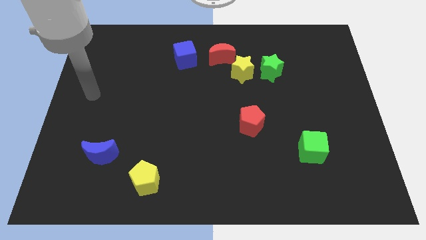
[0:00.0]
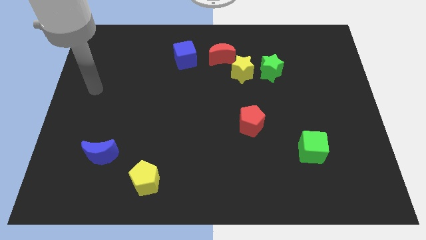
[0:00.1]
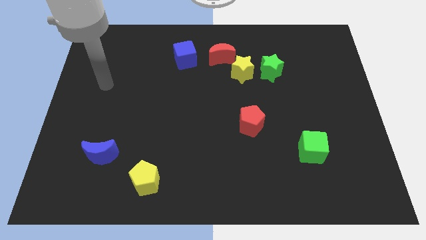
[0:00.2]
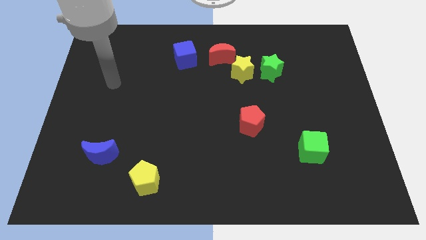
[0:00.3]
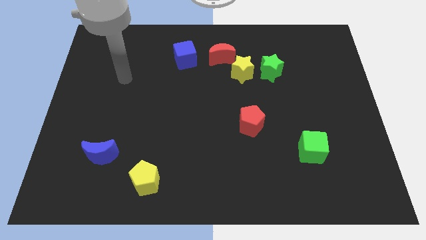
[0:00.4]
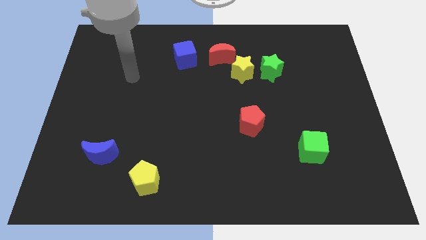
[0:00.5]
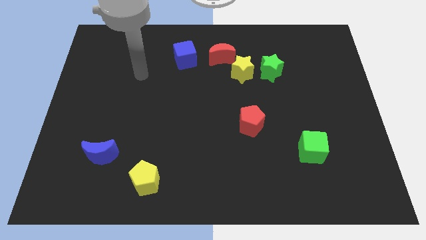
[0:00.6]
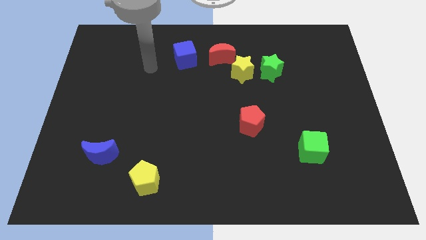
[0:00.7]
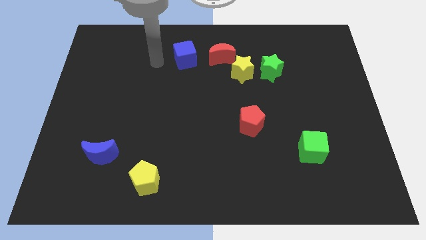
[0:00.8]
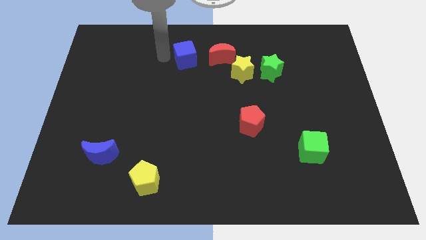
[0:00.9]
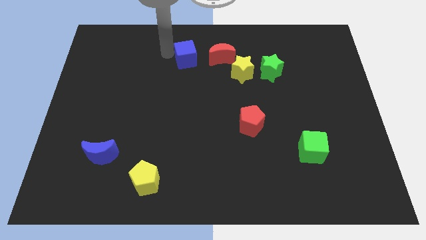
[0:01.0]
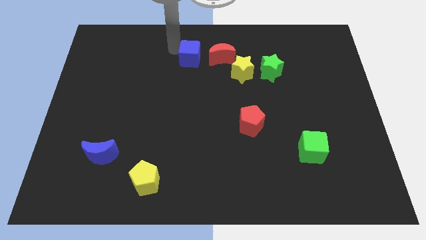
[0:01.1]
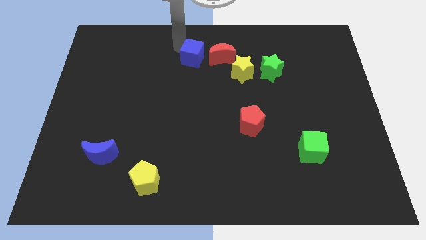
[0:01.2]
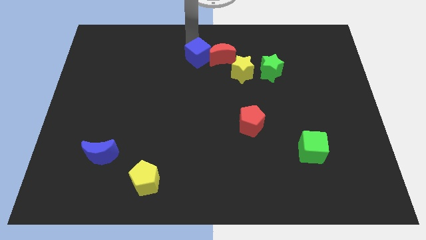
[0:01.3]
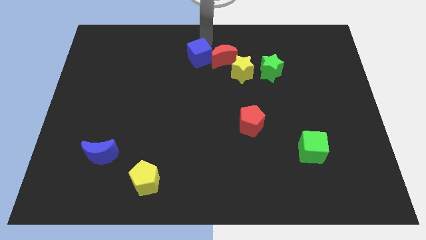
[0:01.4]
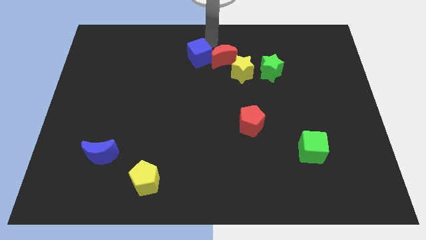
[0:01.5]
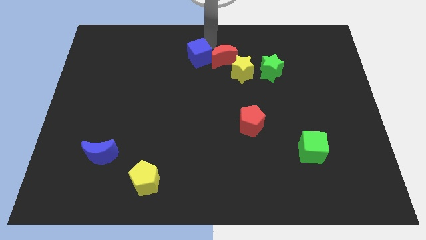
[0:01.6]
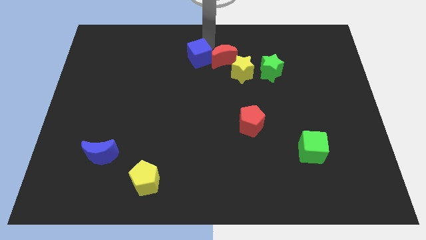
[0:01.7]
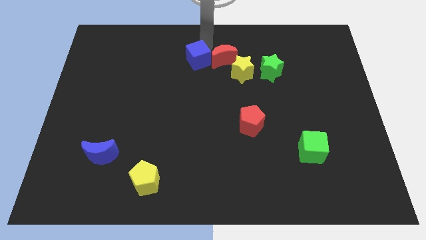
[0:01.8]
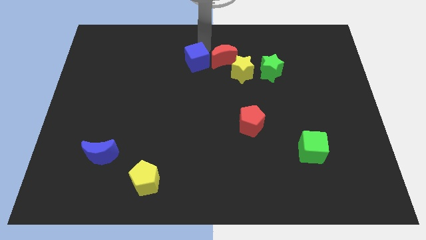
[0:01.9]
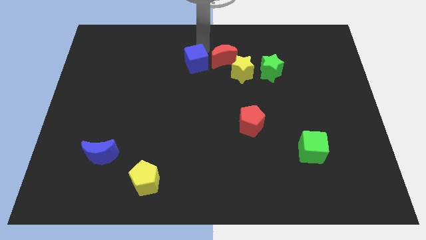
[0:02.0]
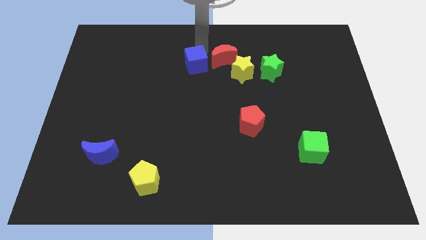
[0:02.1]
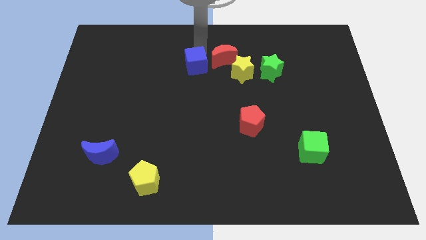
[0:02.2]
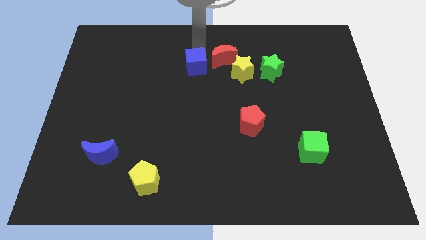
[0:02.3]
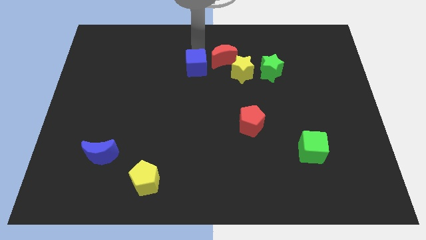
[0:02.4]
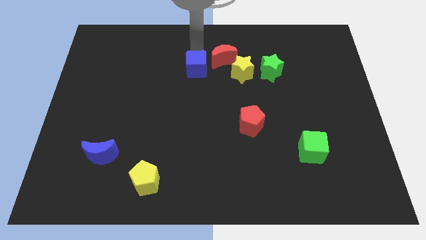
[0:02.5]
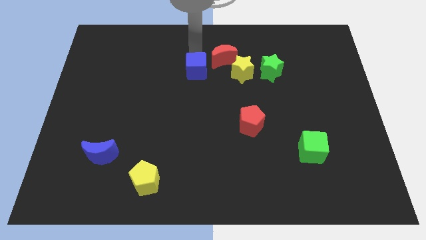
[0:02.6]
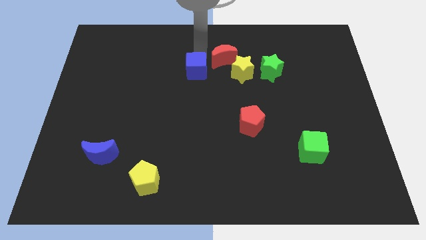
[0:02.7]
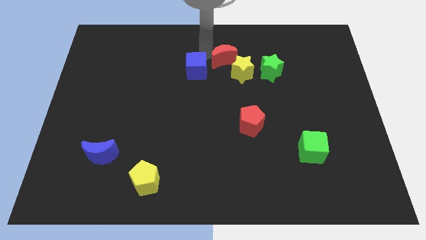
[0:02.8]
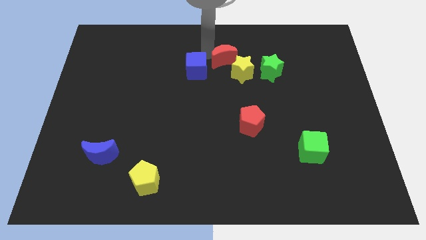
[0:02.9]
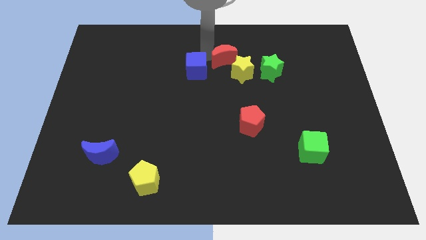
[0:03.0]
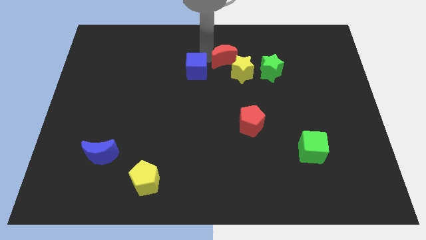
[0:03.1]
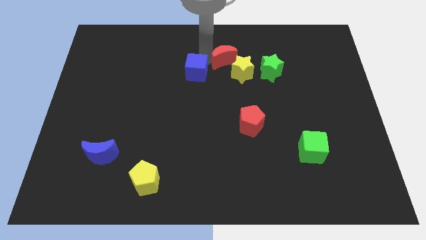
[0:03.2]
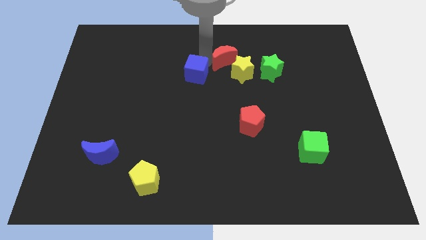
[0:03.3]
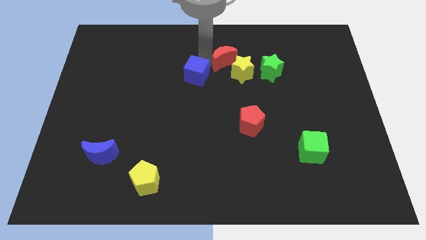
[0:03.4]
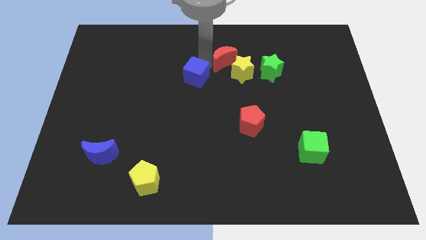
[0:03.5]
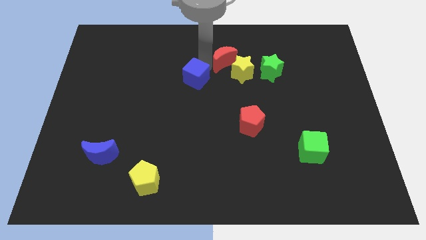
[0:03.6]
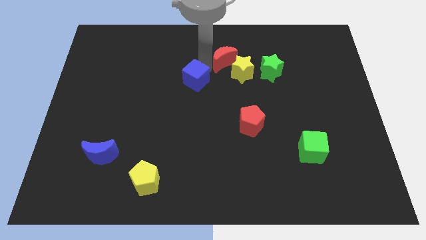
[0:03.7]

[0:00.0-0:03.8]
move the blue cube a little downwards

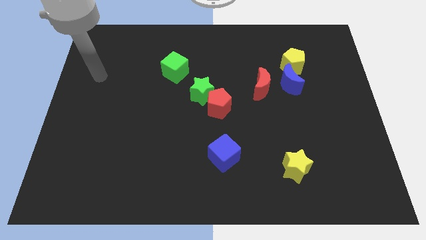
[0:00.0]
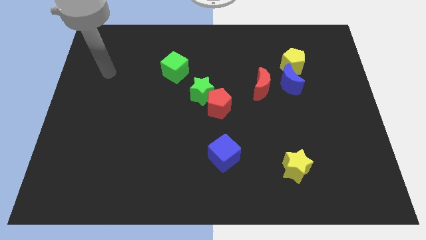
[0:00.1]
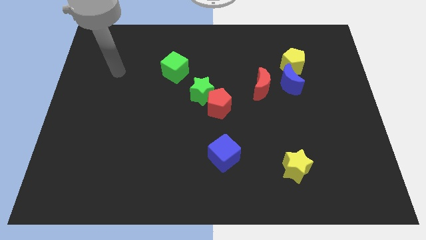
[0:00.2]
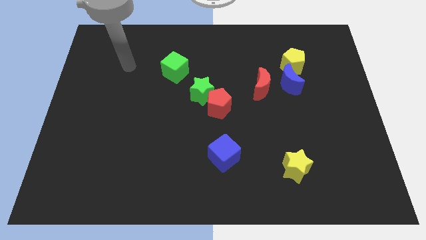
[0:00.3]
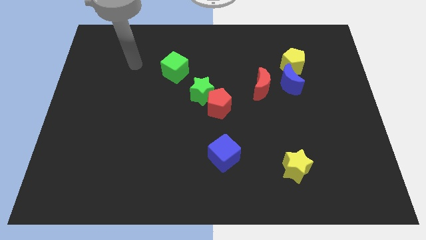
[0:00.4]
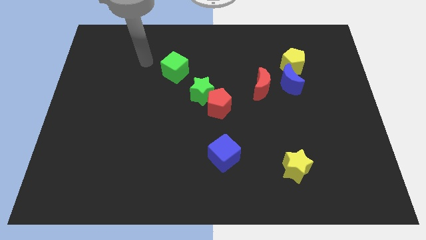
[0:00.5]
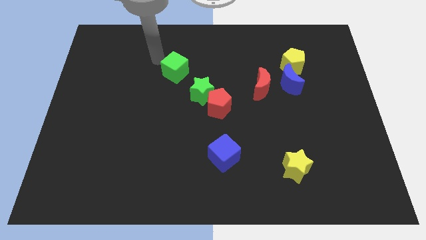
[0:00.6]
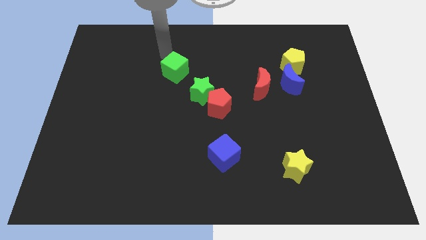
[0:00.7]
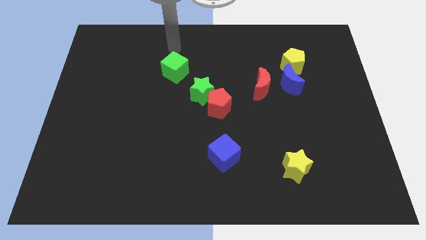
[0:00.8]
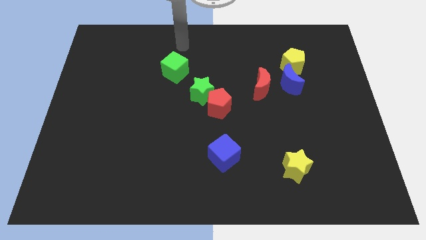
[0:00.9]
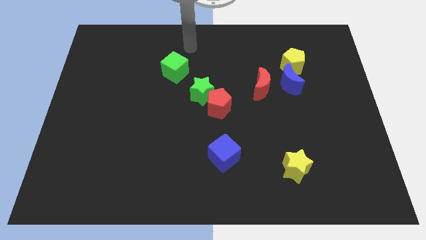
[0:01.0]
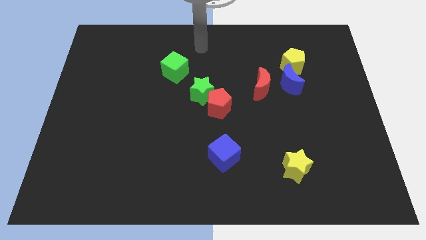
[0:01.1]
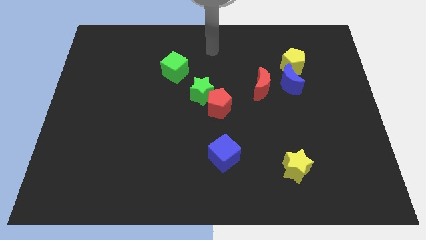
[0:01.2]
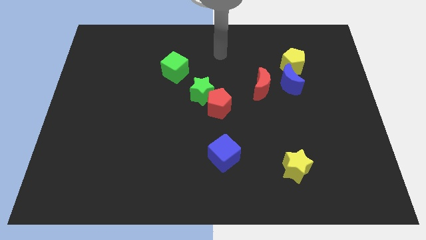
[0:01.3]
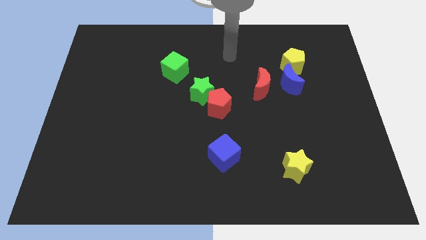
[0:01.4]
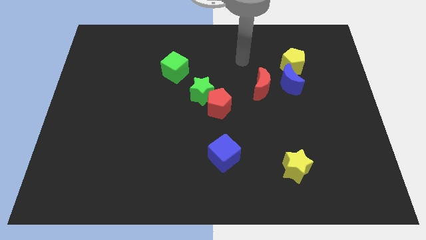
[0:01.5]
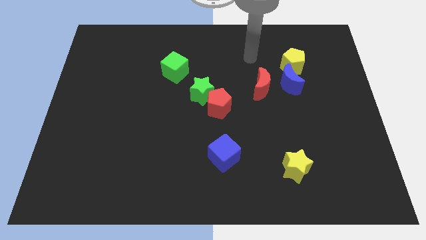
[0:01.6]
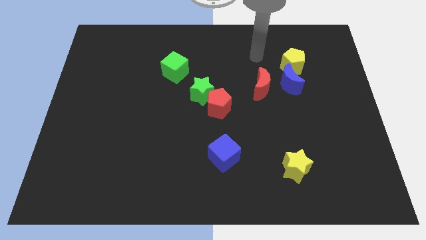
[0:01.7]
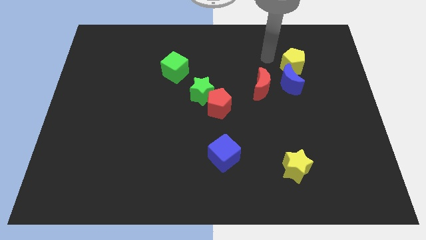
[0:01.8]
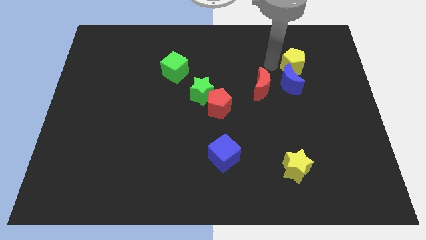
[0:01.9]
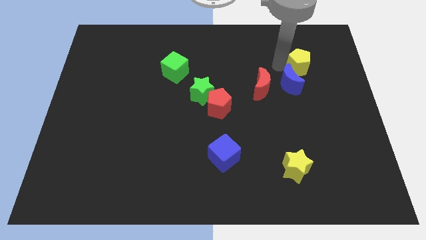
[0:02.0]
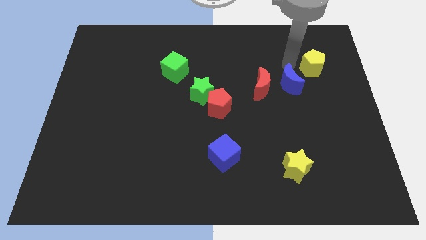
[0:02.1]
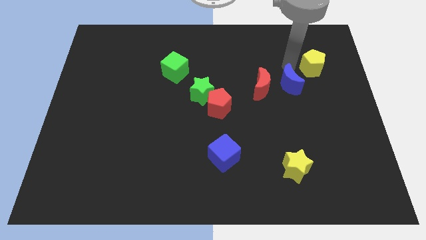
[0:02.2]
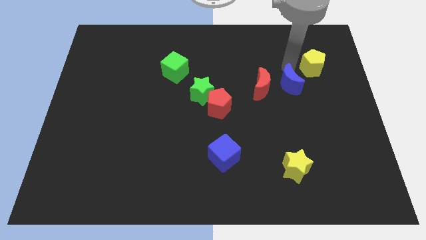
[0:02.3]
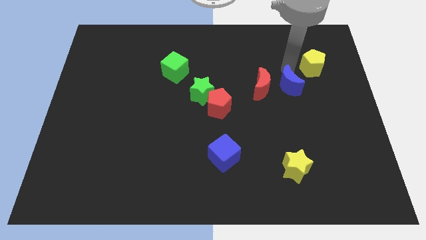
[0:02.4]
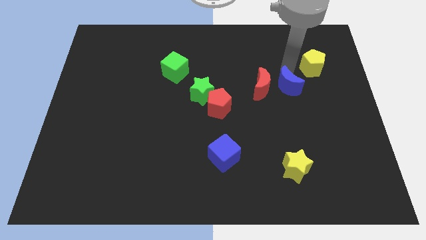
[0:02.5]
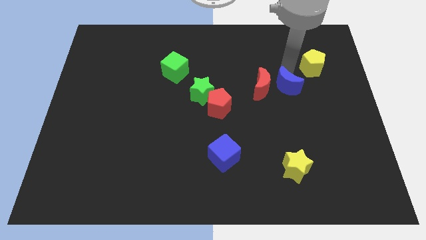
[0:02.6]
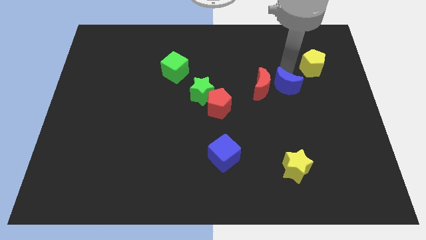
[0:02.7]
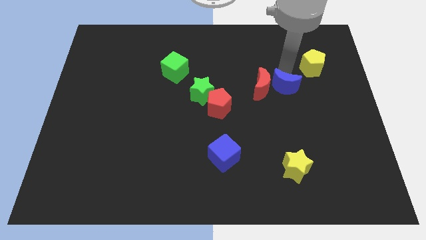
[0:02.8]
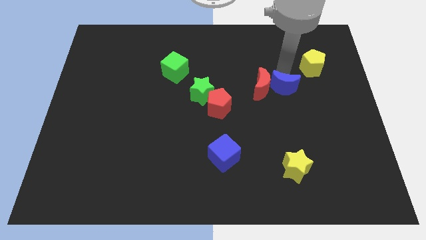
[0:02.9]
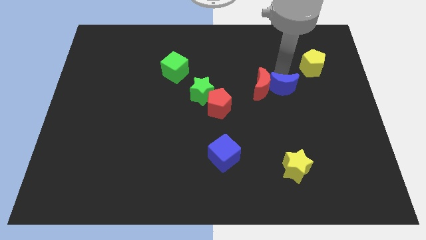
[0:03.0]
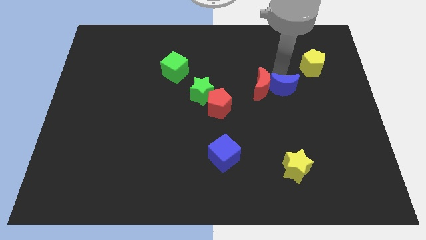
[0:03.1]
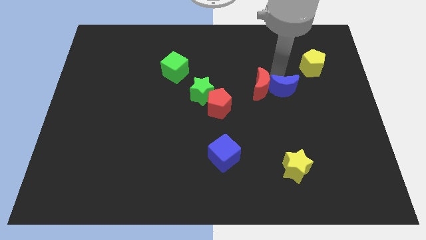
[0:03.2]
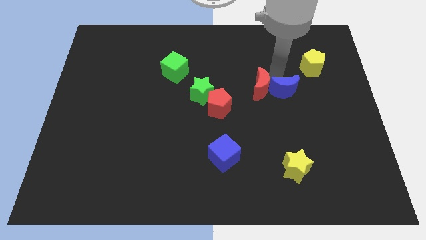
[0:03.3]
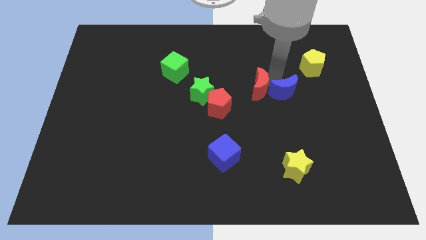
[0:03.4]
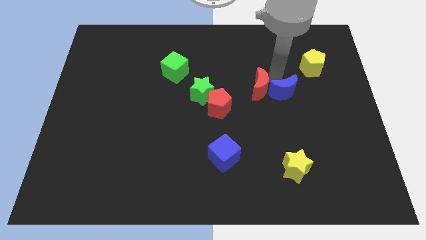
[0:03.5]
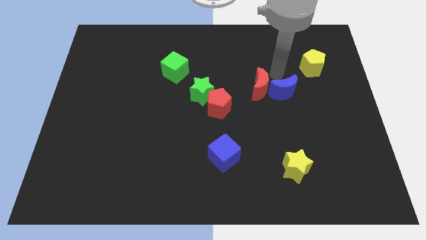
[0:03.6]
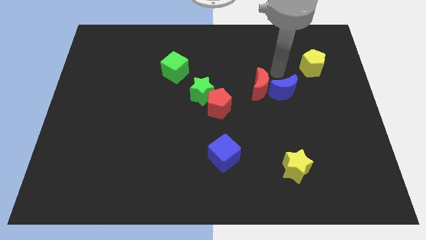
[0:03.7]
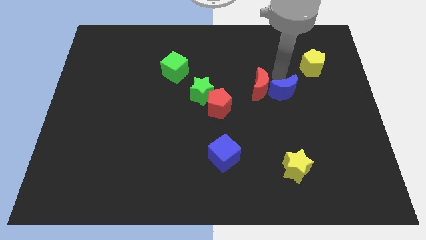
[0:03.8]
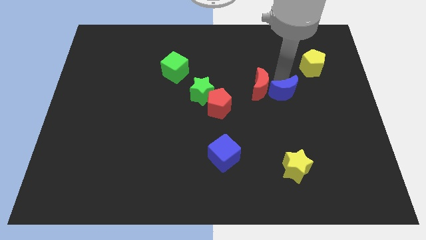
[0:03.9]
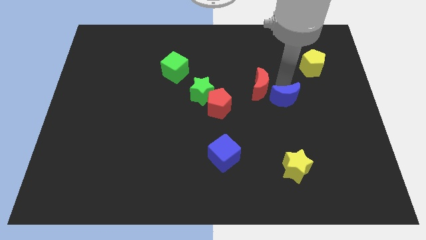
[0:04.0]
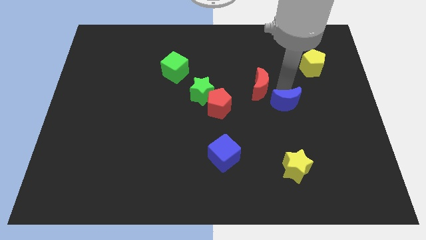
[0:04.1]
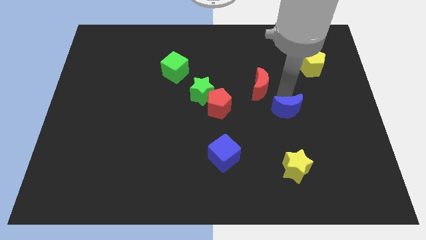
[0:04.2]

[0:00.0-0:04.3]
slightly move the blue moon downwards
